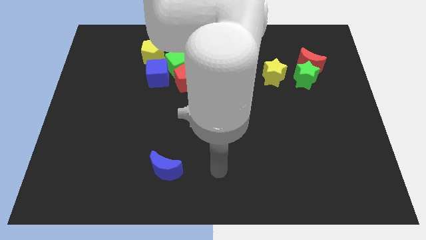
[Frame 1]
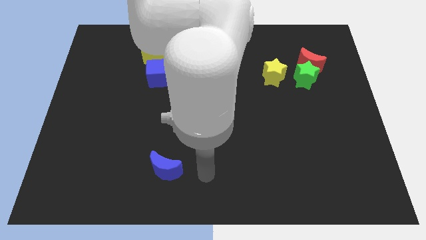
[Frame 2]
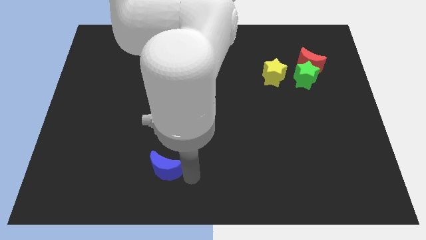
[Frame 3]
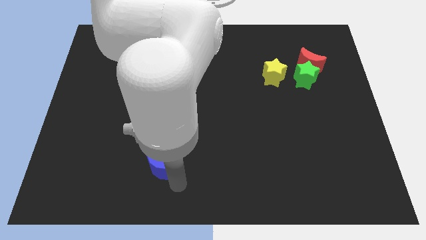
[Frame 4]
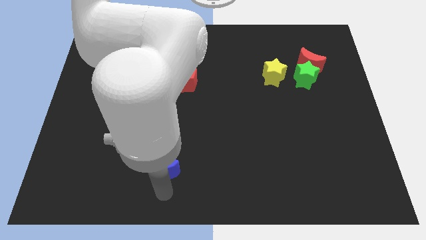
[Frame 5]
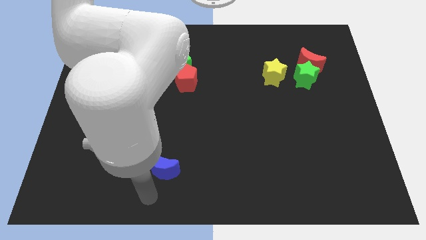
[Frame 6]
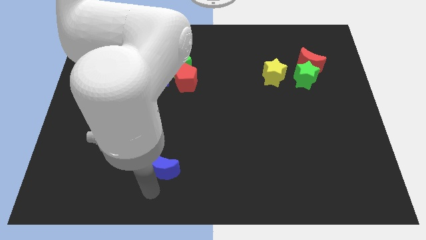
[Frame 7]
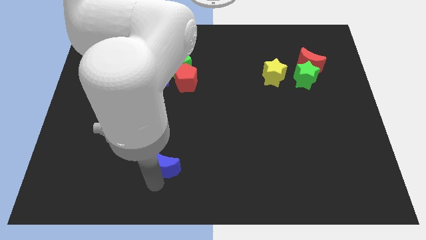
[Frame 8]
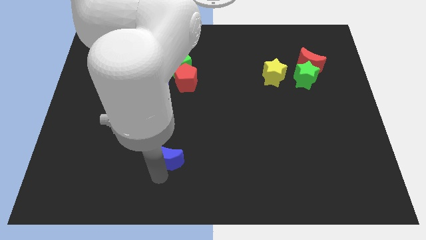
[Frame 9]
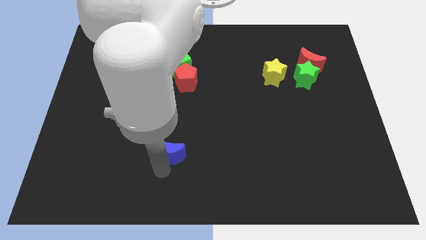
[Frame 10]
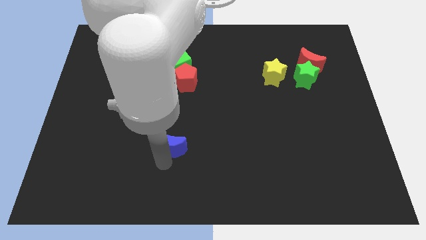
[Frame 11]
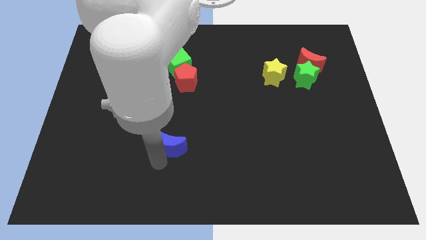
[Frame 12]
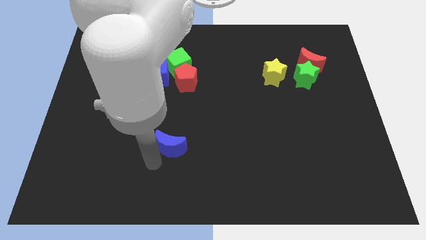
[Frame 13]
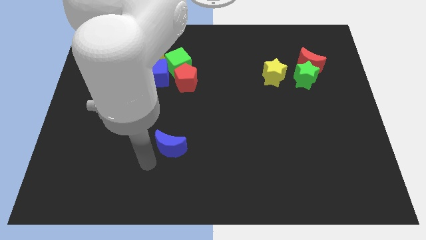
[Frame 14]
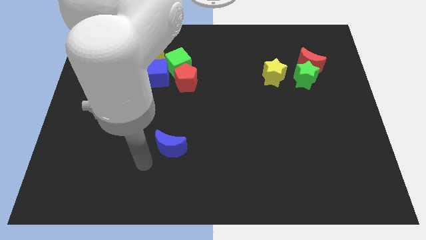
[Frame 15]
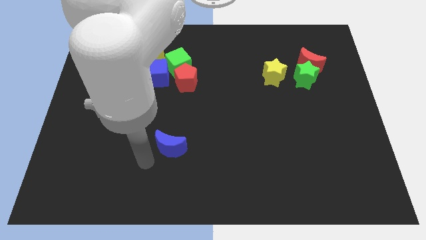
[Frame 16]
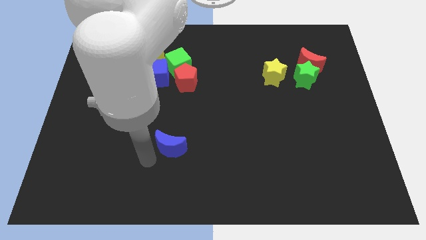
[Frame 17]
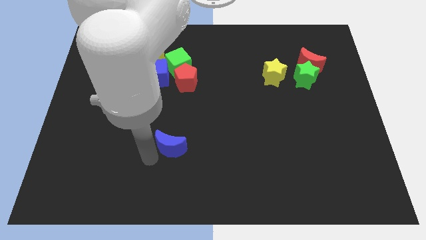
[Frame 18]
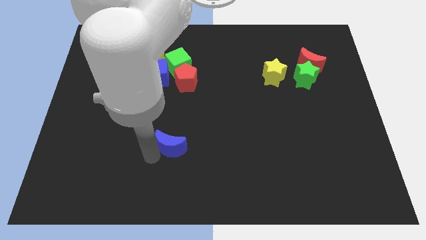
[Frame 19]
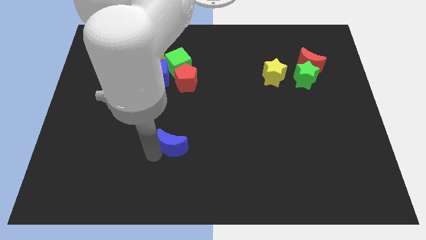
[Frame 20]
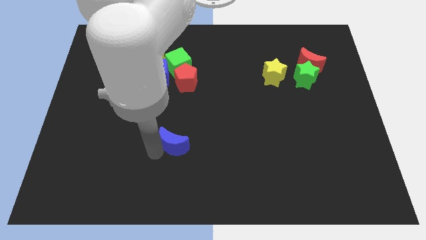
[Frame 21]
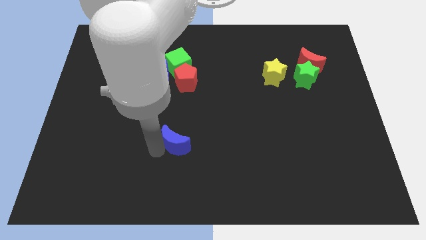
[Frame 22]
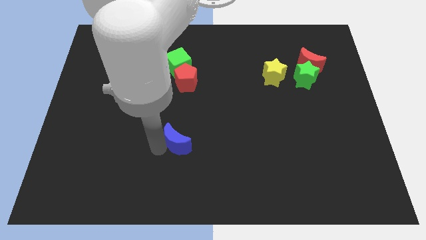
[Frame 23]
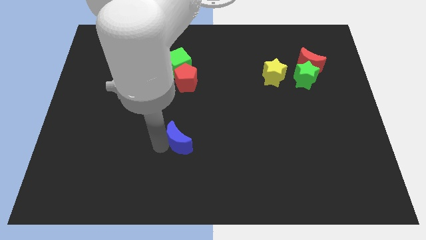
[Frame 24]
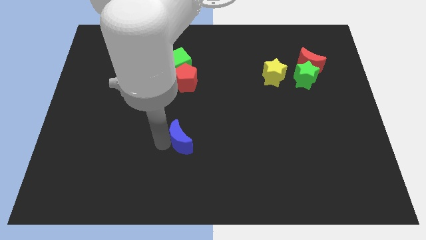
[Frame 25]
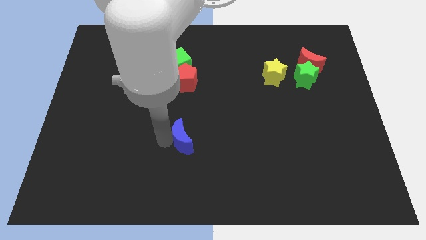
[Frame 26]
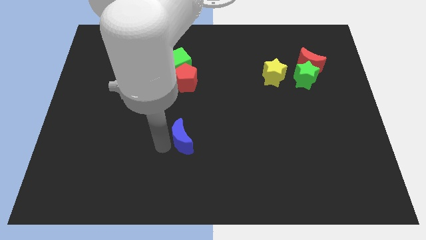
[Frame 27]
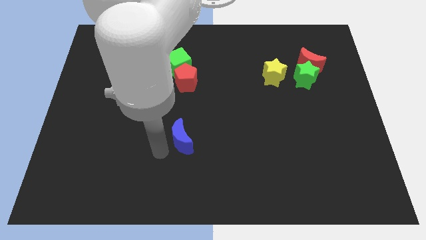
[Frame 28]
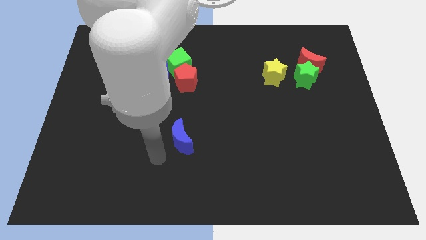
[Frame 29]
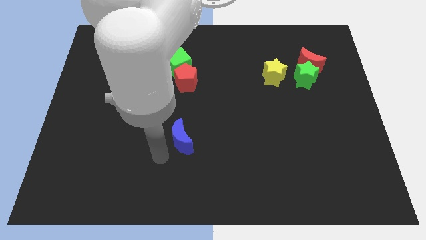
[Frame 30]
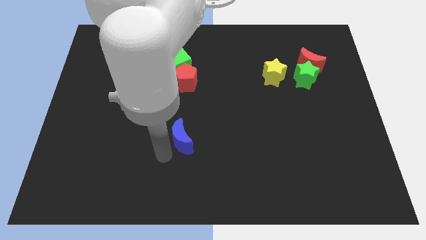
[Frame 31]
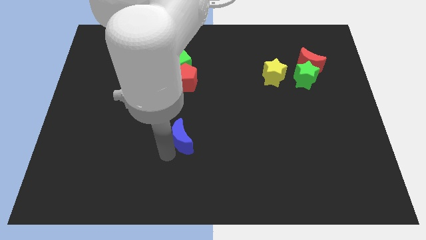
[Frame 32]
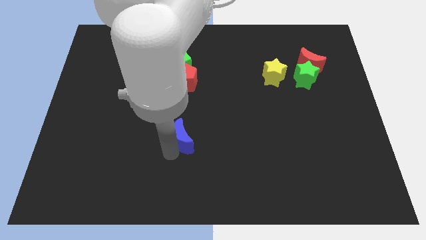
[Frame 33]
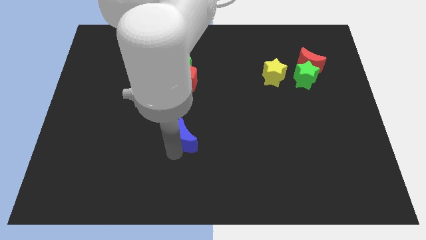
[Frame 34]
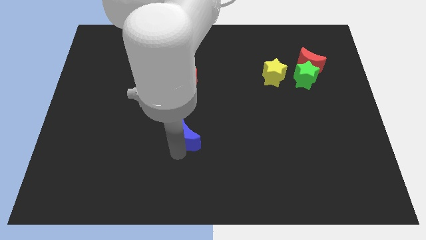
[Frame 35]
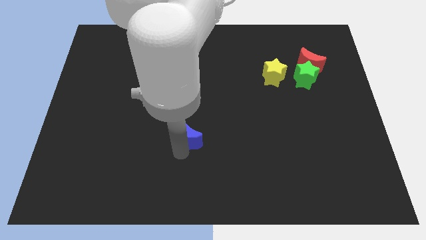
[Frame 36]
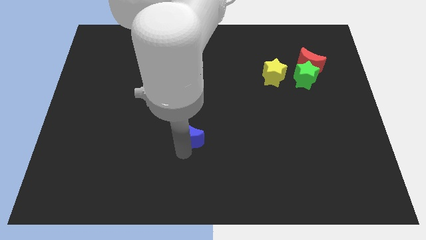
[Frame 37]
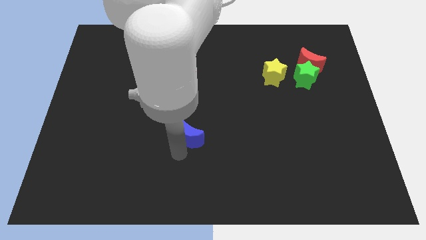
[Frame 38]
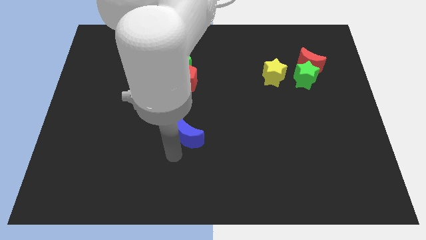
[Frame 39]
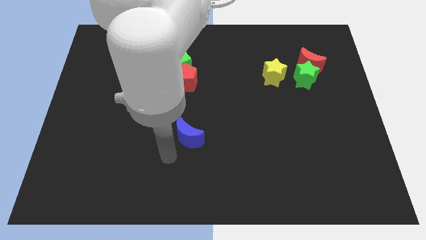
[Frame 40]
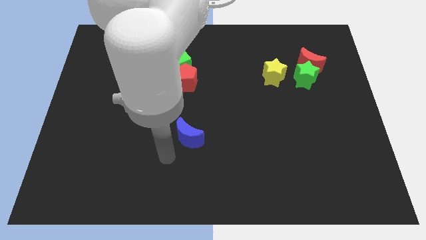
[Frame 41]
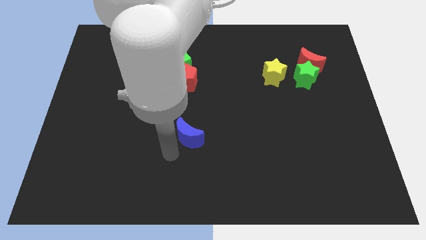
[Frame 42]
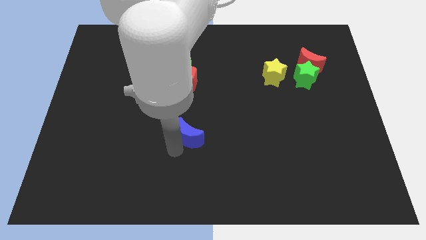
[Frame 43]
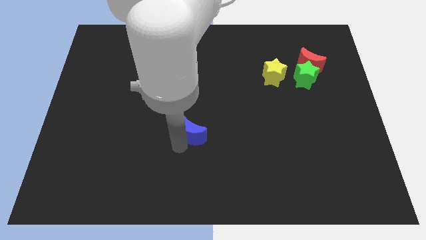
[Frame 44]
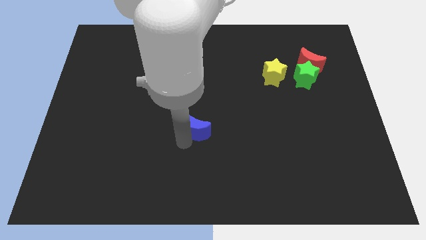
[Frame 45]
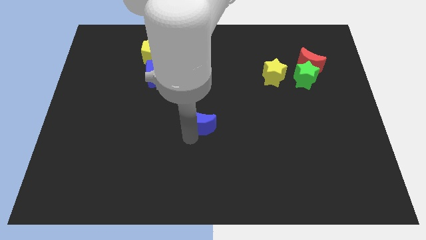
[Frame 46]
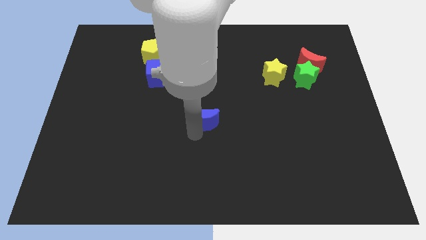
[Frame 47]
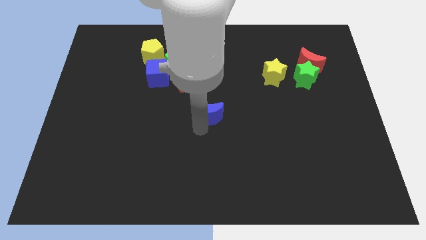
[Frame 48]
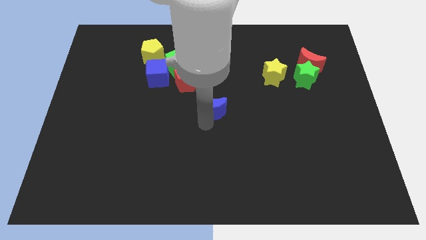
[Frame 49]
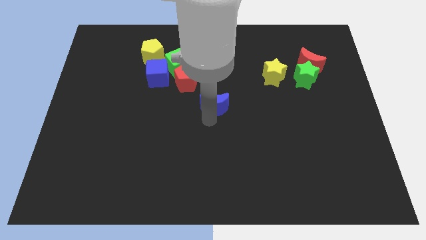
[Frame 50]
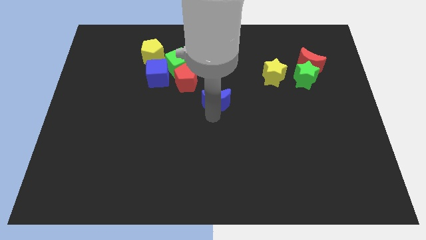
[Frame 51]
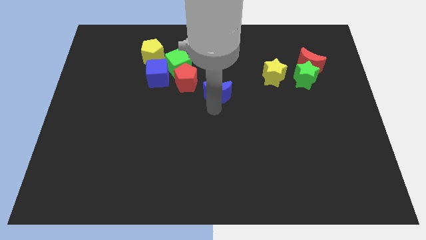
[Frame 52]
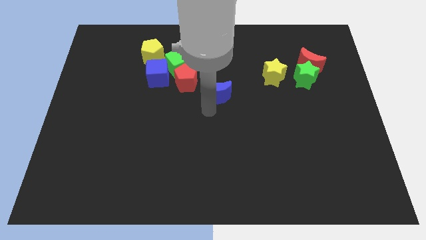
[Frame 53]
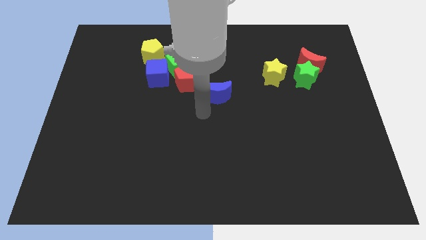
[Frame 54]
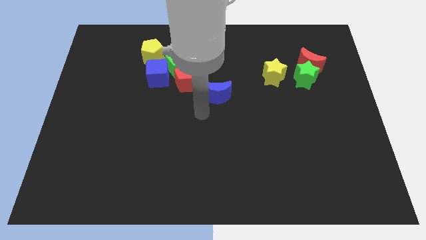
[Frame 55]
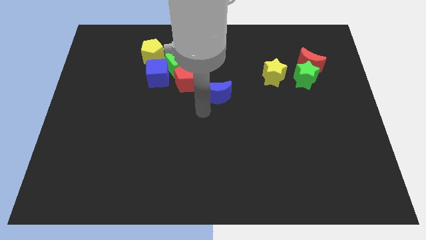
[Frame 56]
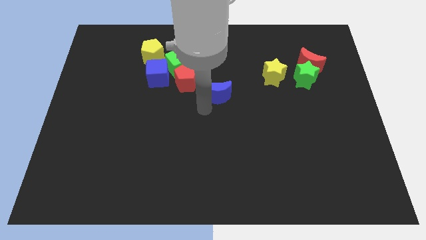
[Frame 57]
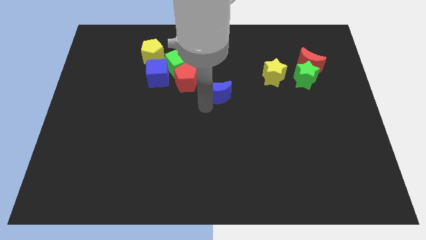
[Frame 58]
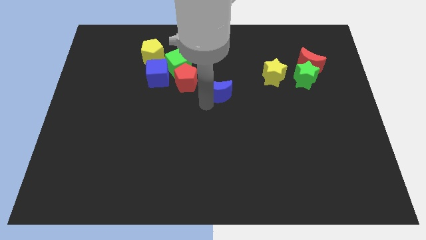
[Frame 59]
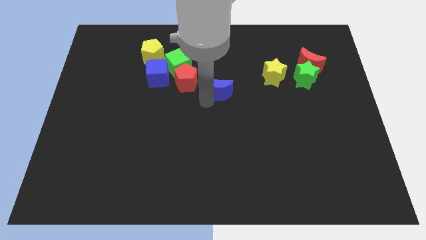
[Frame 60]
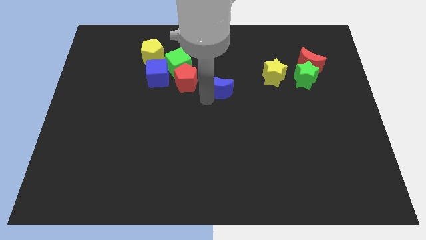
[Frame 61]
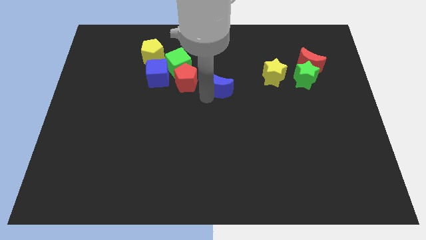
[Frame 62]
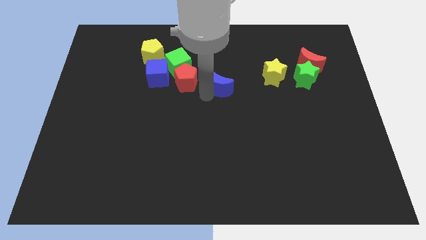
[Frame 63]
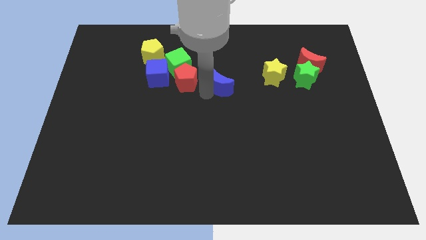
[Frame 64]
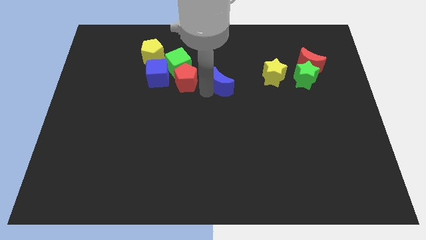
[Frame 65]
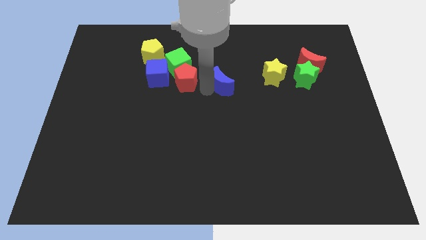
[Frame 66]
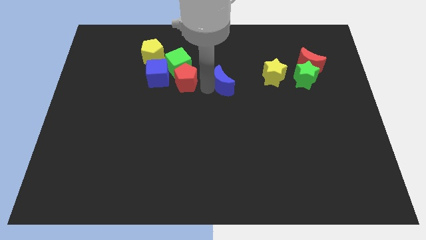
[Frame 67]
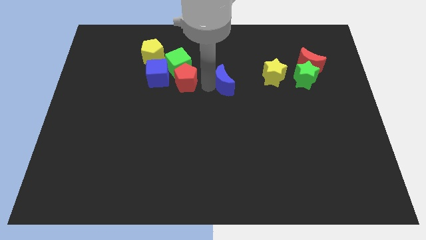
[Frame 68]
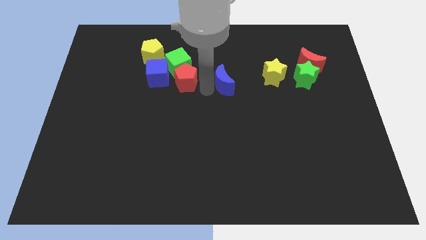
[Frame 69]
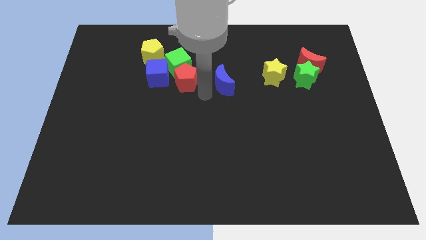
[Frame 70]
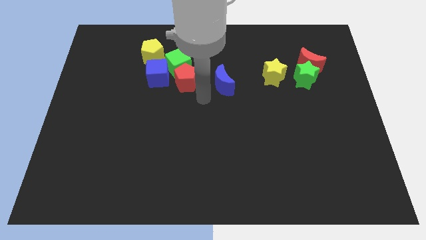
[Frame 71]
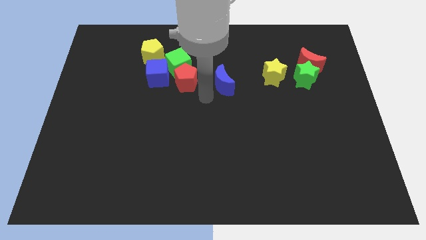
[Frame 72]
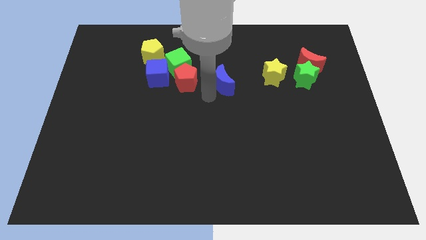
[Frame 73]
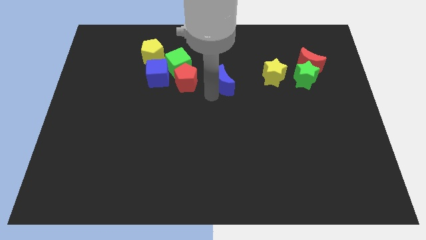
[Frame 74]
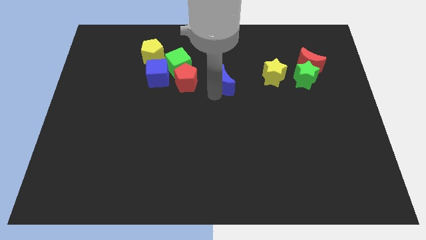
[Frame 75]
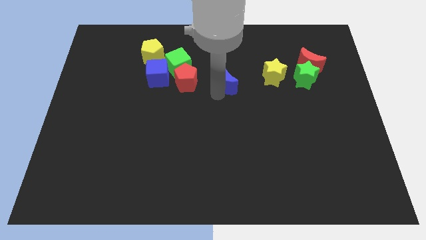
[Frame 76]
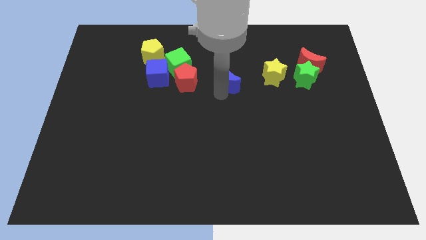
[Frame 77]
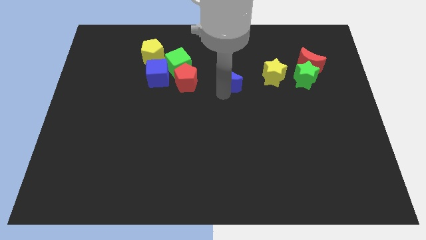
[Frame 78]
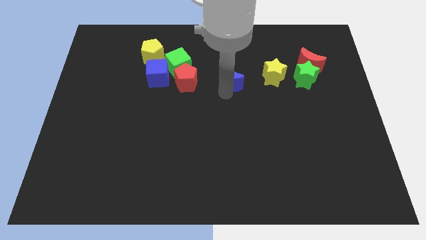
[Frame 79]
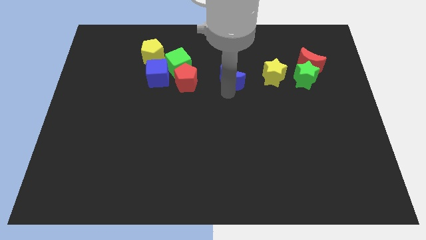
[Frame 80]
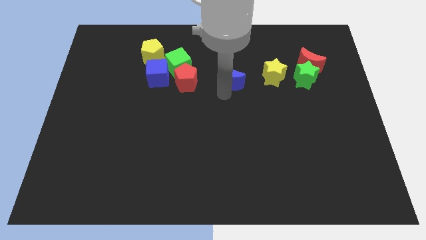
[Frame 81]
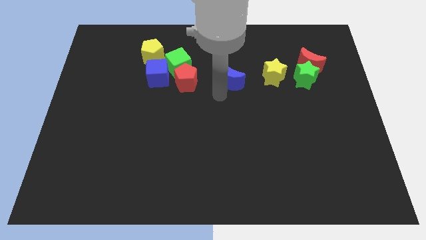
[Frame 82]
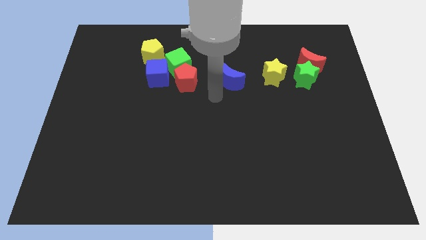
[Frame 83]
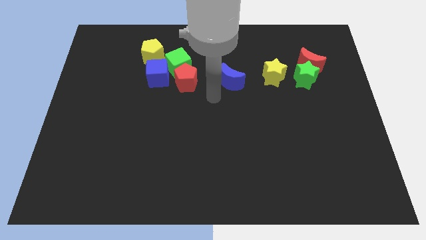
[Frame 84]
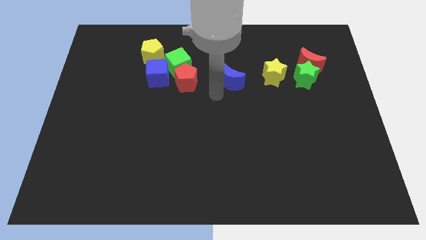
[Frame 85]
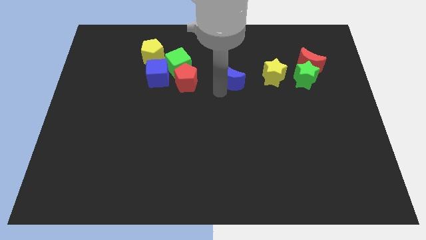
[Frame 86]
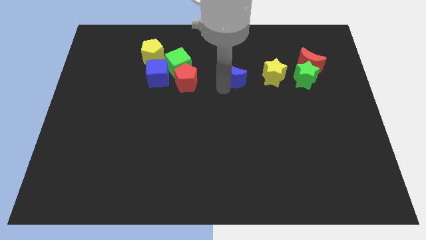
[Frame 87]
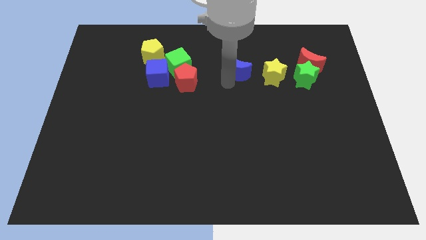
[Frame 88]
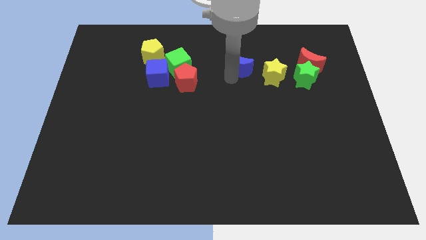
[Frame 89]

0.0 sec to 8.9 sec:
move the blue moon to the top left of the yellow star
